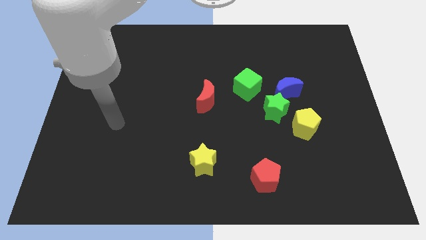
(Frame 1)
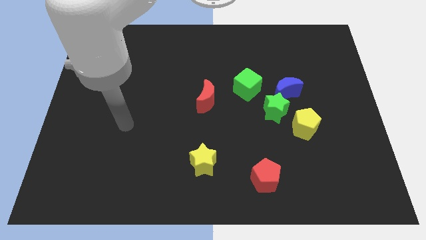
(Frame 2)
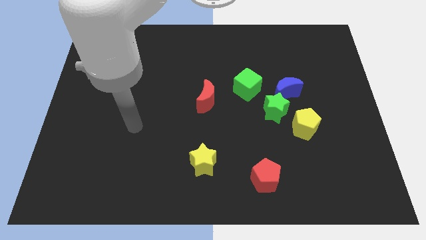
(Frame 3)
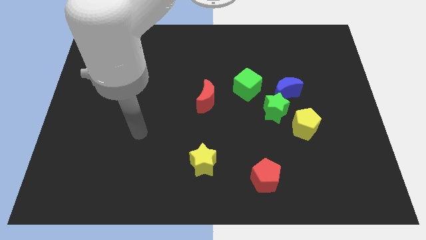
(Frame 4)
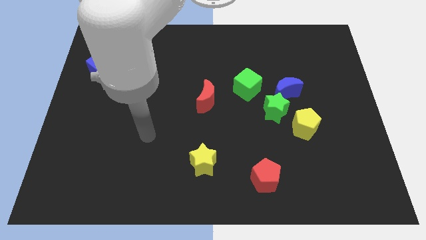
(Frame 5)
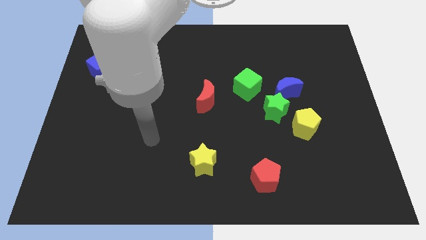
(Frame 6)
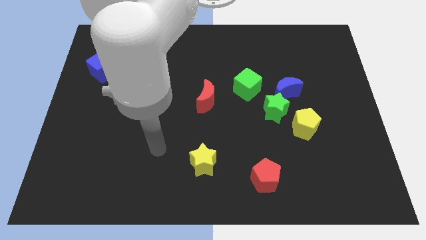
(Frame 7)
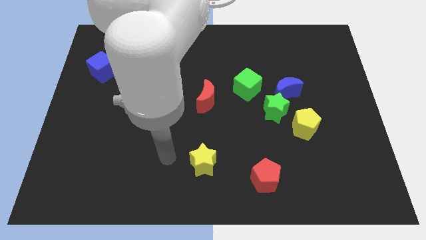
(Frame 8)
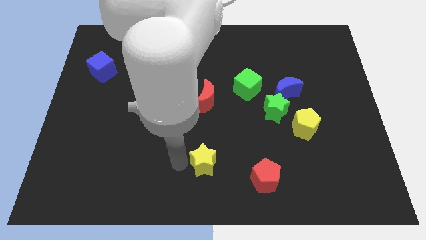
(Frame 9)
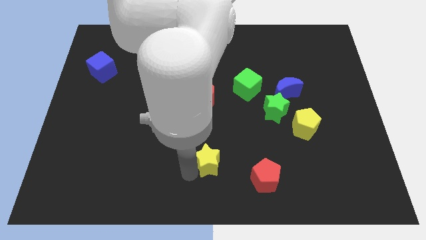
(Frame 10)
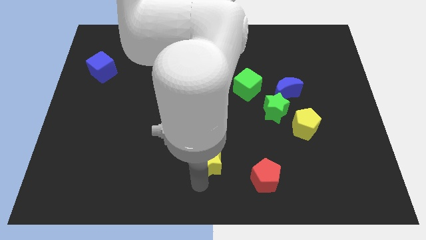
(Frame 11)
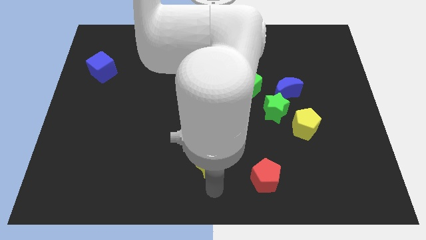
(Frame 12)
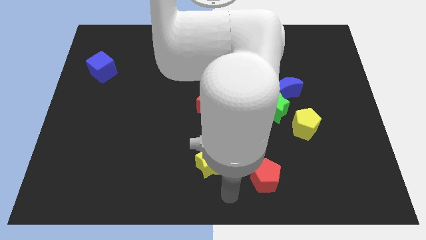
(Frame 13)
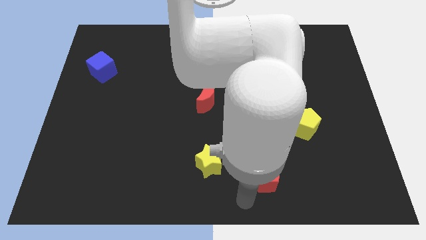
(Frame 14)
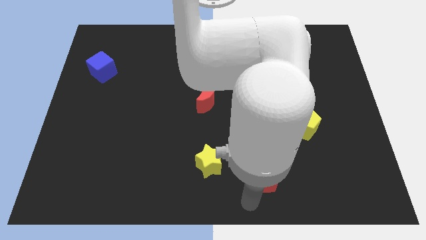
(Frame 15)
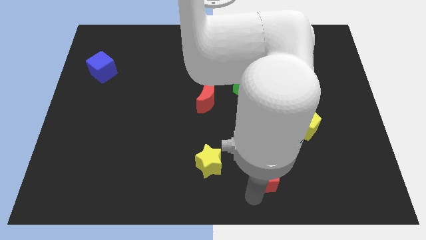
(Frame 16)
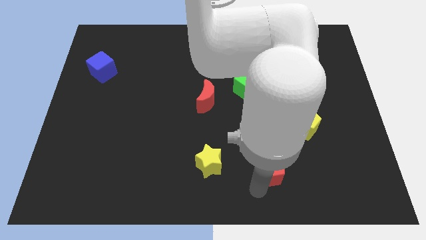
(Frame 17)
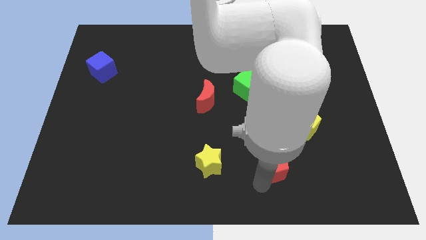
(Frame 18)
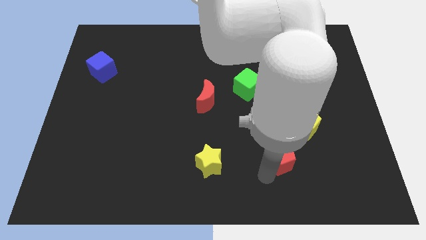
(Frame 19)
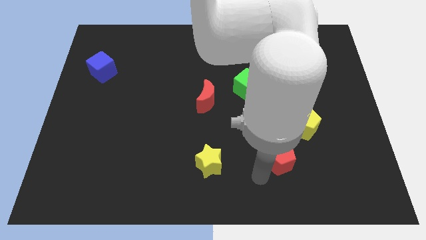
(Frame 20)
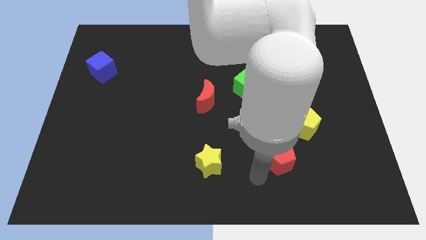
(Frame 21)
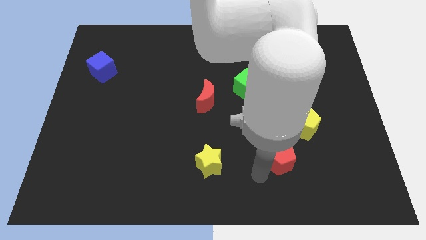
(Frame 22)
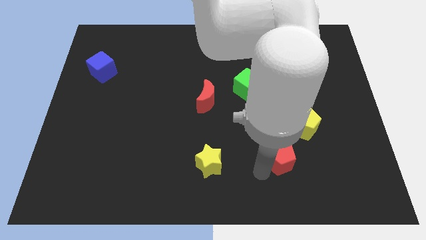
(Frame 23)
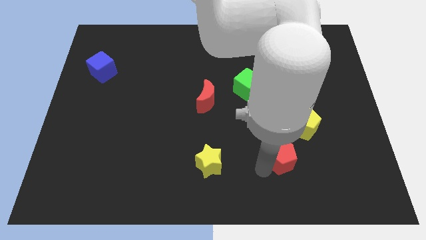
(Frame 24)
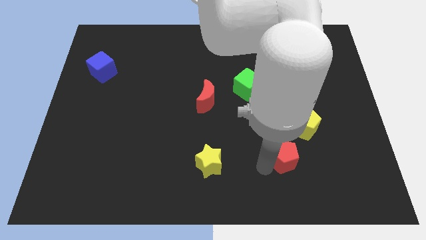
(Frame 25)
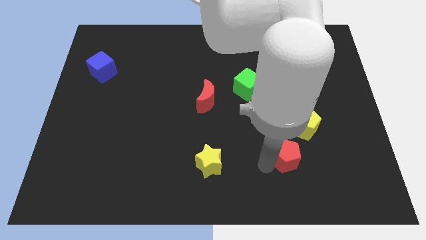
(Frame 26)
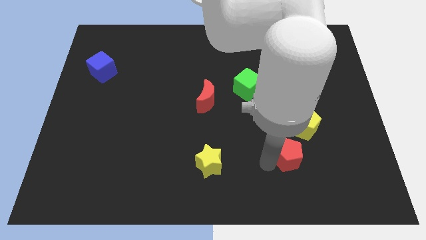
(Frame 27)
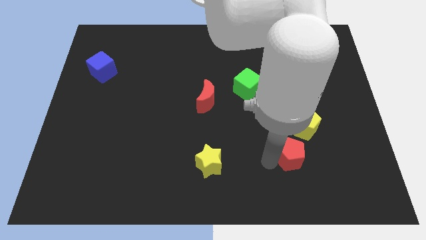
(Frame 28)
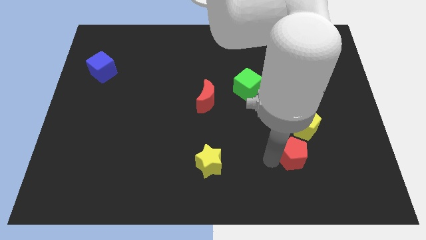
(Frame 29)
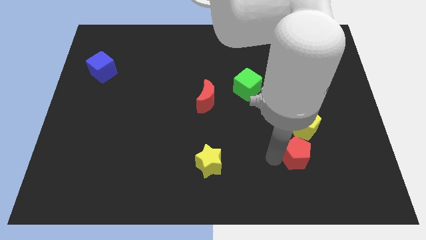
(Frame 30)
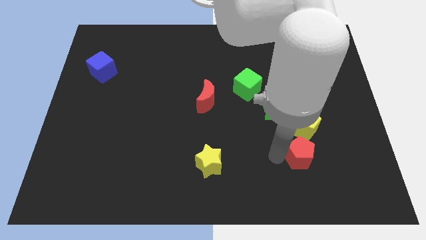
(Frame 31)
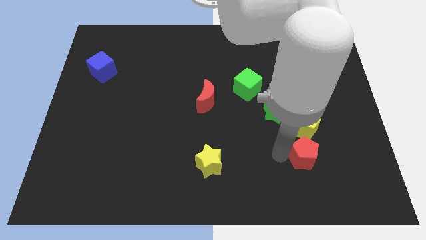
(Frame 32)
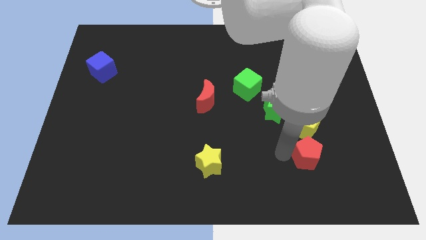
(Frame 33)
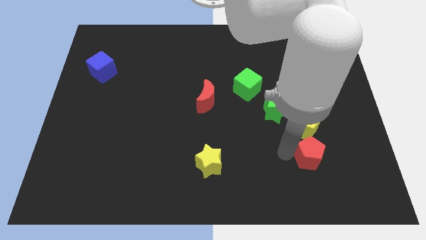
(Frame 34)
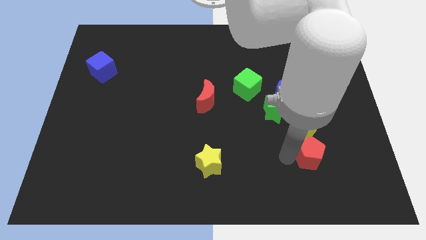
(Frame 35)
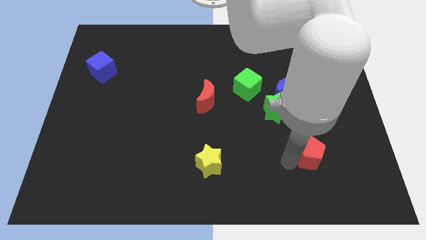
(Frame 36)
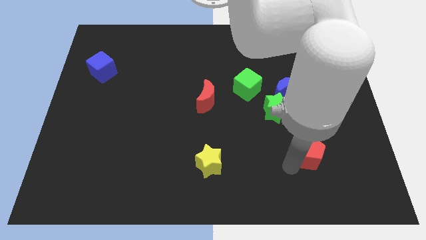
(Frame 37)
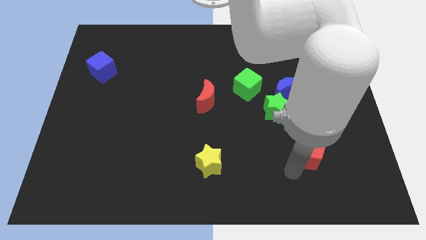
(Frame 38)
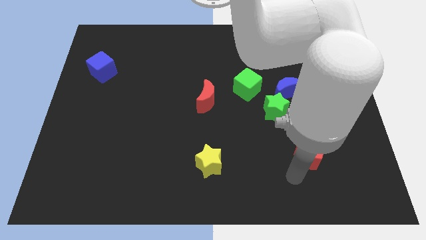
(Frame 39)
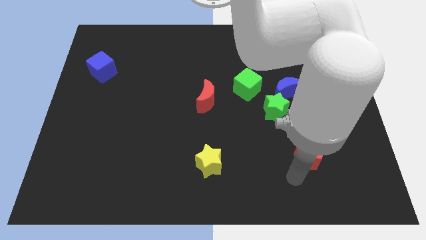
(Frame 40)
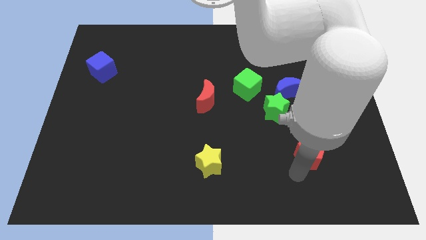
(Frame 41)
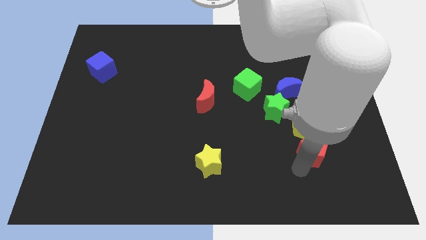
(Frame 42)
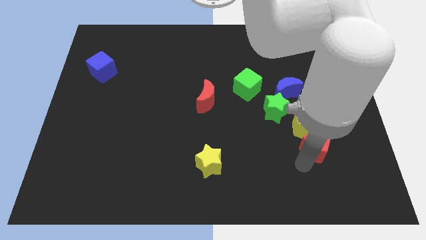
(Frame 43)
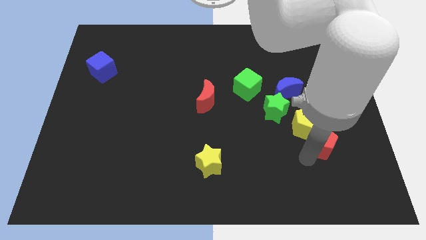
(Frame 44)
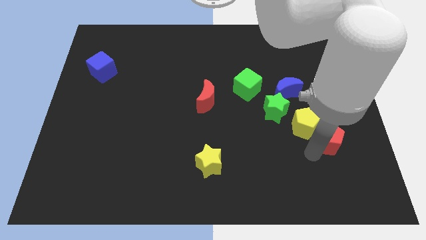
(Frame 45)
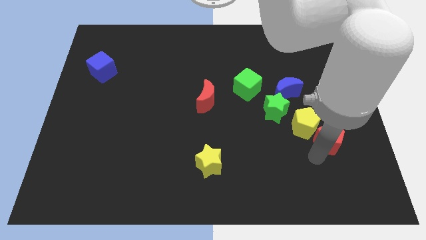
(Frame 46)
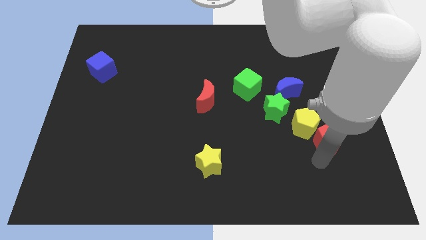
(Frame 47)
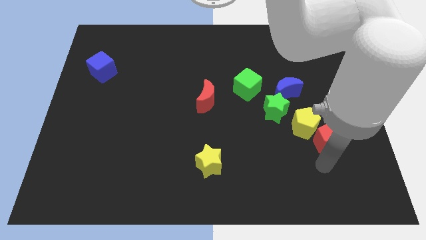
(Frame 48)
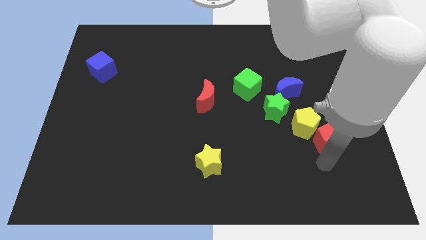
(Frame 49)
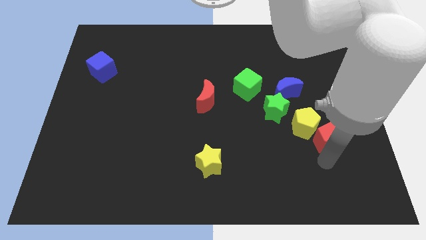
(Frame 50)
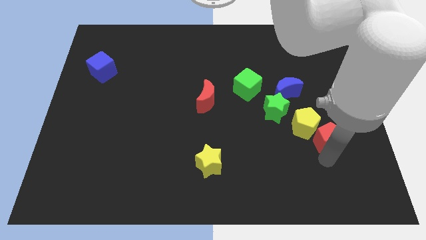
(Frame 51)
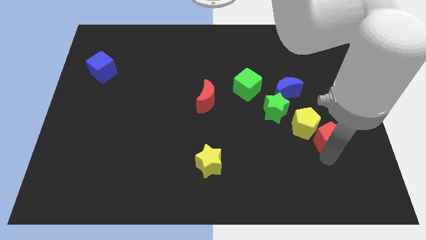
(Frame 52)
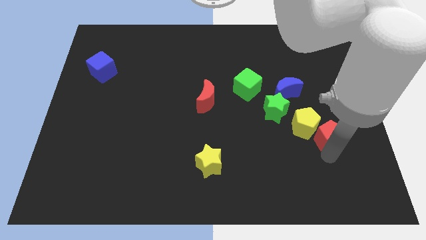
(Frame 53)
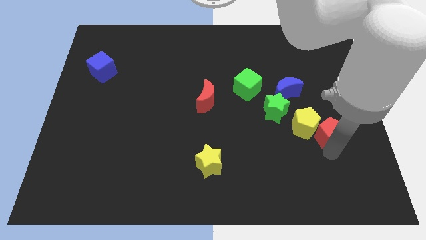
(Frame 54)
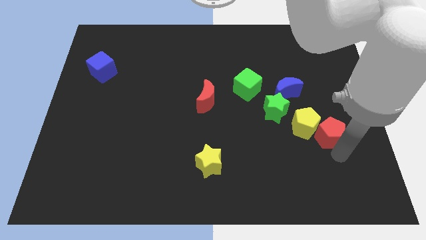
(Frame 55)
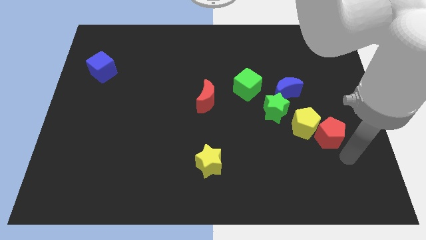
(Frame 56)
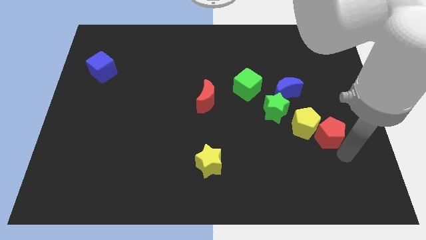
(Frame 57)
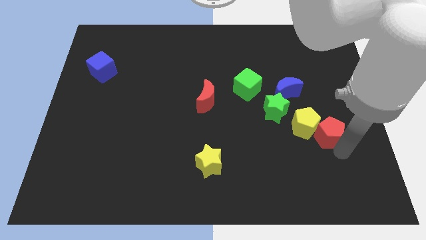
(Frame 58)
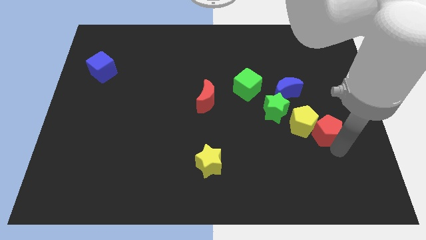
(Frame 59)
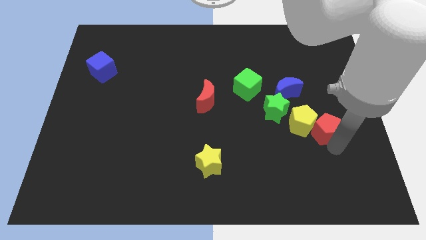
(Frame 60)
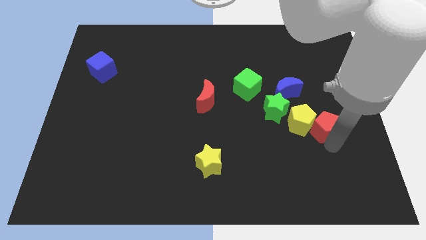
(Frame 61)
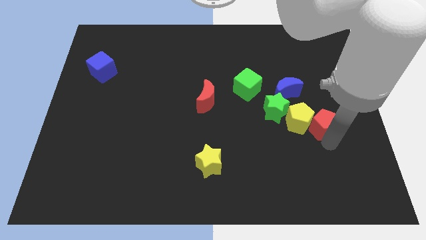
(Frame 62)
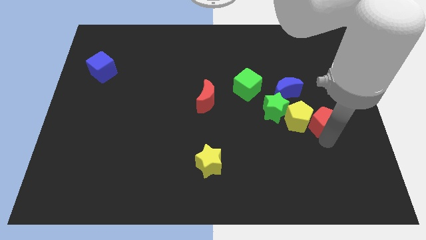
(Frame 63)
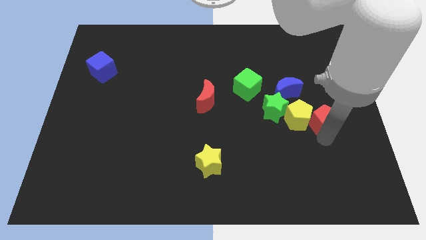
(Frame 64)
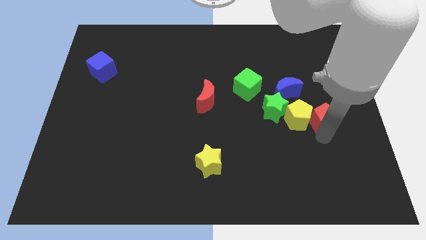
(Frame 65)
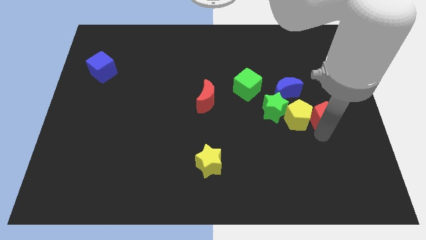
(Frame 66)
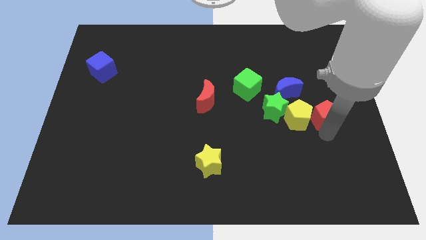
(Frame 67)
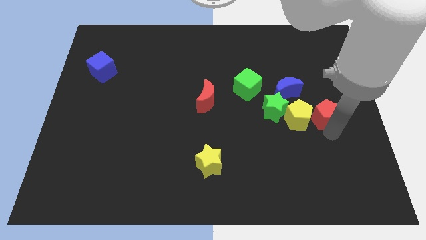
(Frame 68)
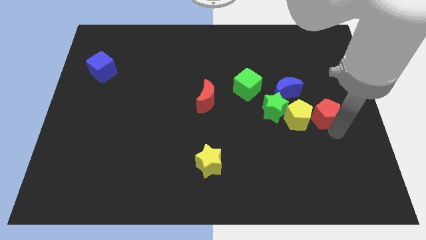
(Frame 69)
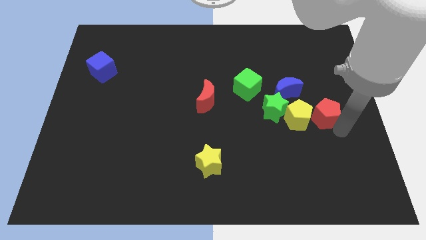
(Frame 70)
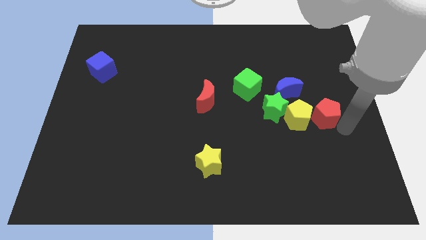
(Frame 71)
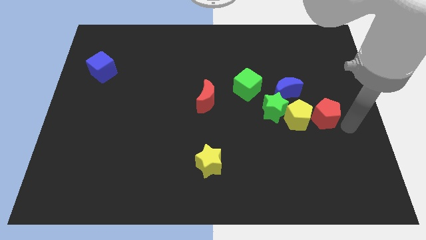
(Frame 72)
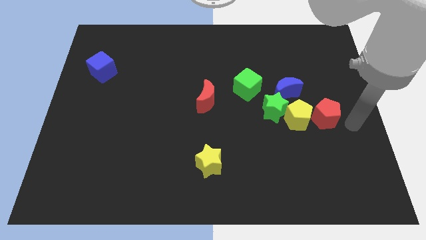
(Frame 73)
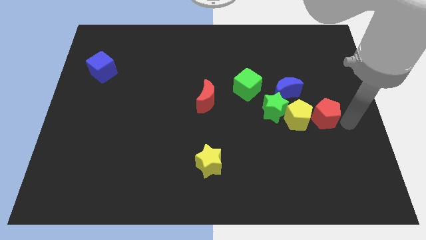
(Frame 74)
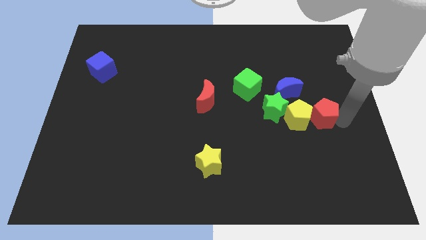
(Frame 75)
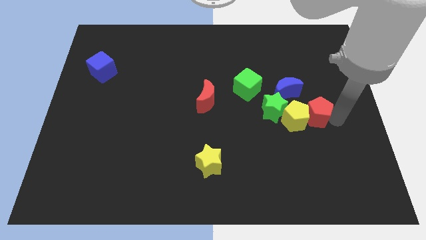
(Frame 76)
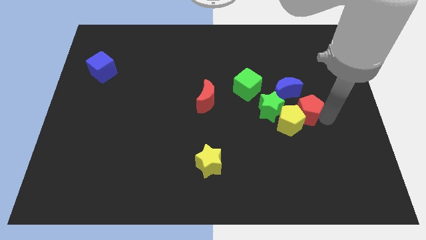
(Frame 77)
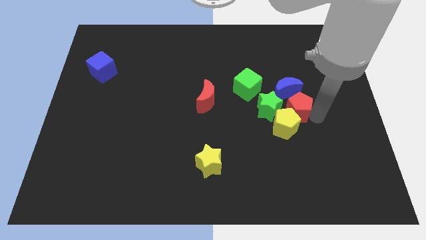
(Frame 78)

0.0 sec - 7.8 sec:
slide the red pentagon close to the blue moon
